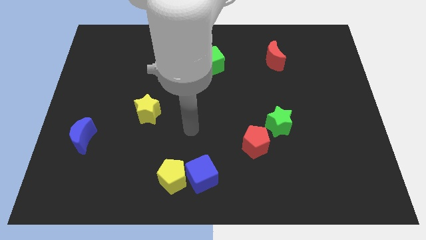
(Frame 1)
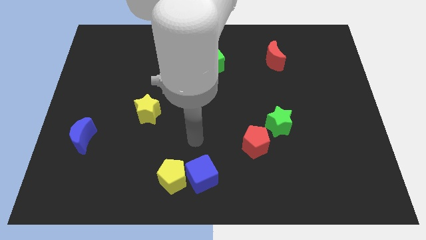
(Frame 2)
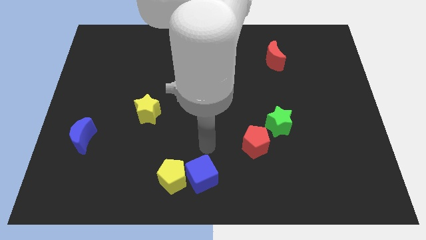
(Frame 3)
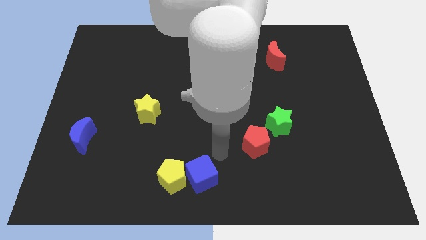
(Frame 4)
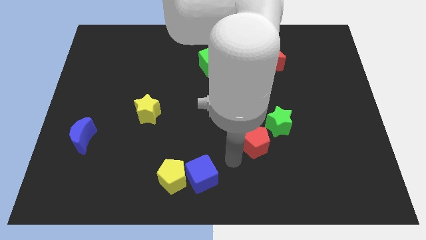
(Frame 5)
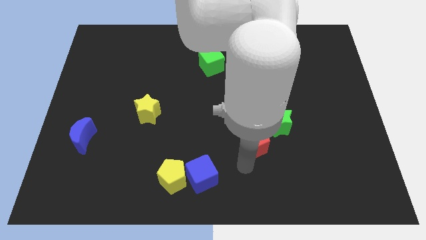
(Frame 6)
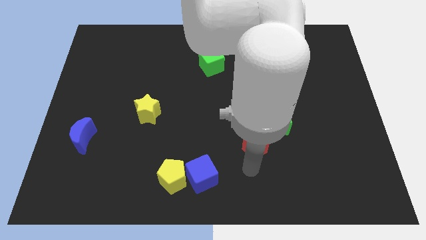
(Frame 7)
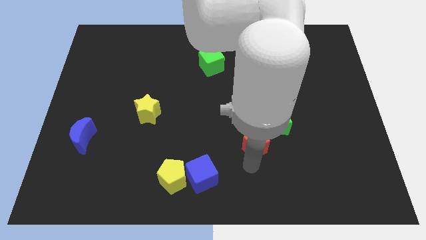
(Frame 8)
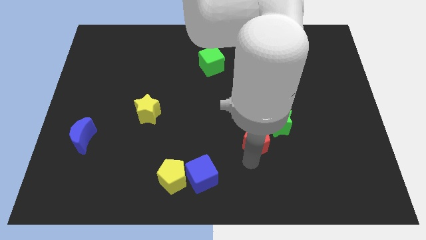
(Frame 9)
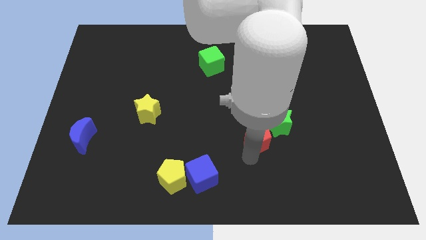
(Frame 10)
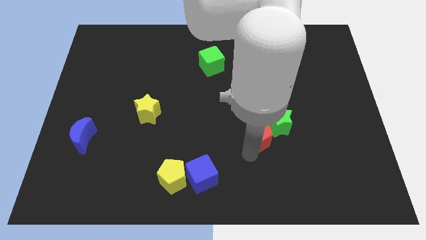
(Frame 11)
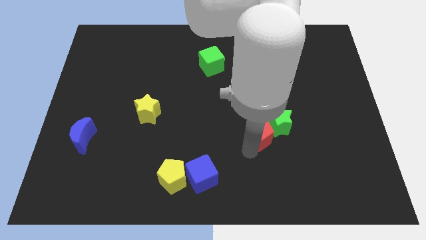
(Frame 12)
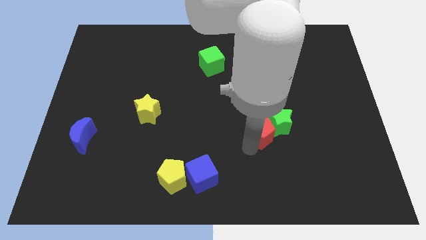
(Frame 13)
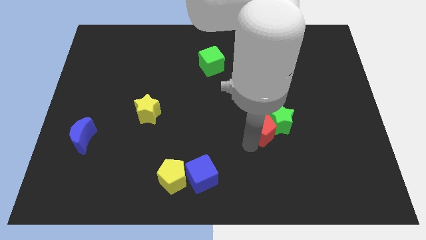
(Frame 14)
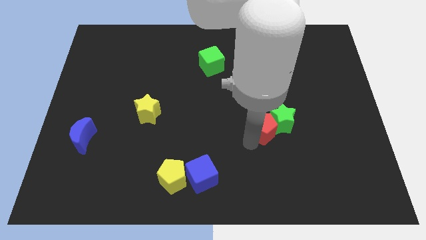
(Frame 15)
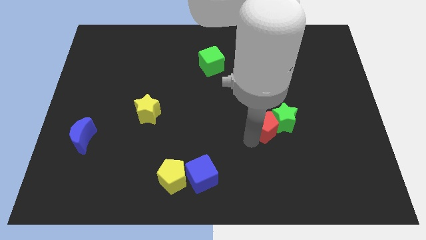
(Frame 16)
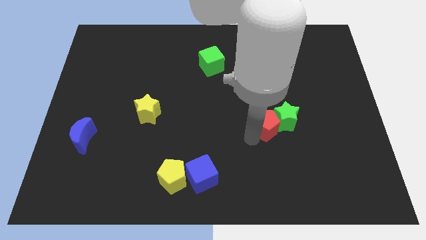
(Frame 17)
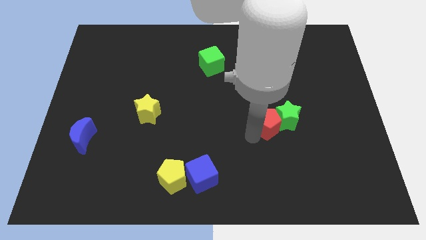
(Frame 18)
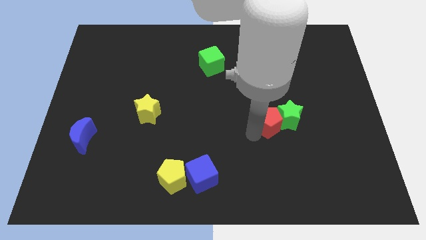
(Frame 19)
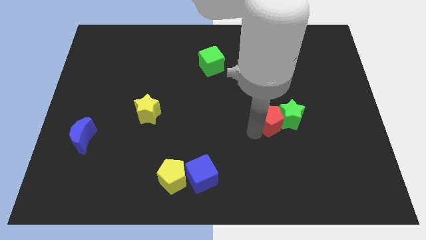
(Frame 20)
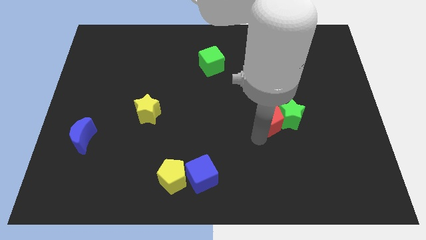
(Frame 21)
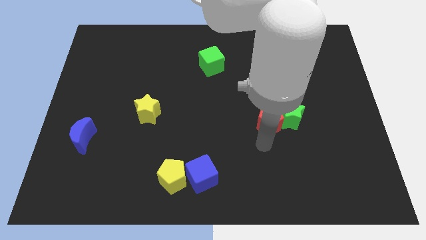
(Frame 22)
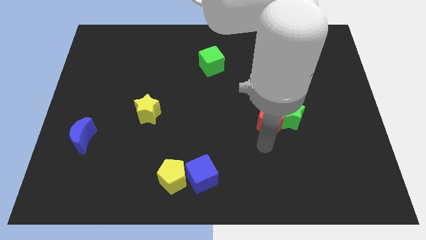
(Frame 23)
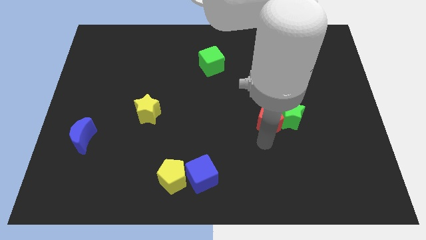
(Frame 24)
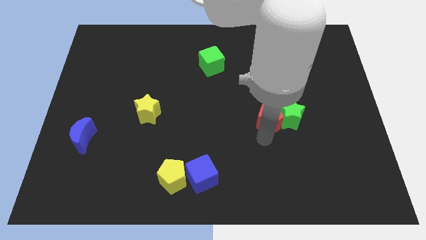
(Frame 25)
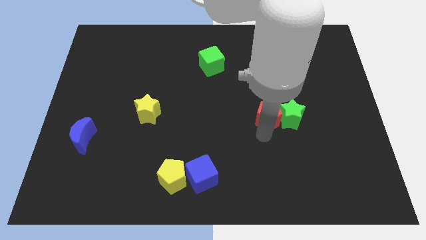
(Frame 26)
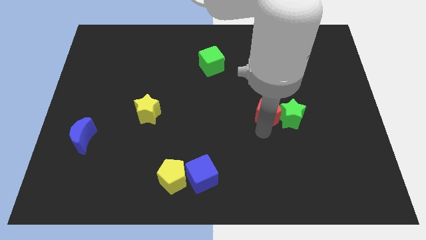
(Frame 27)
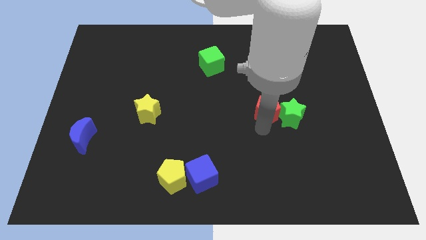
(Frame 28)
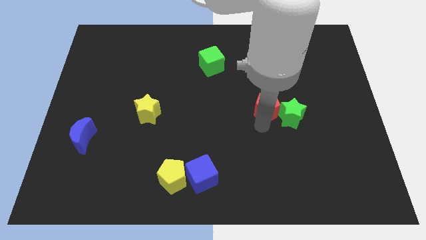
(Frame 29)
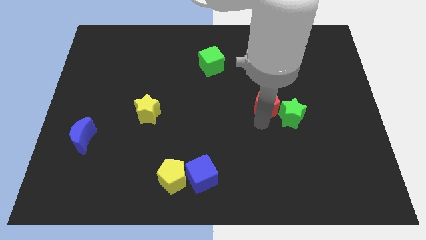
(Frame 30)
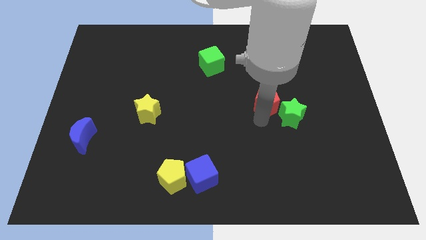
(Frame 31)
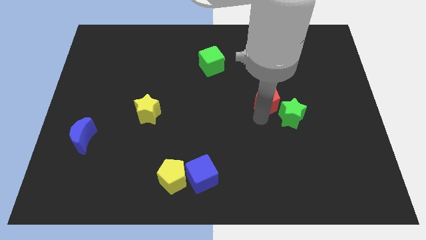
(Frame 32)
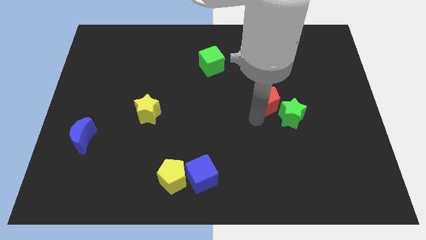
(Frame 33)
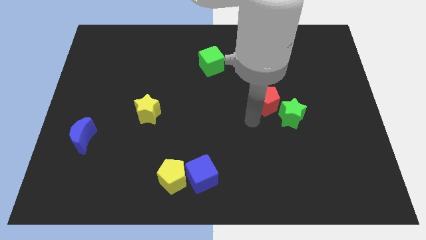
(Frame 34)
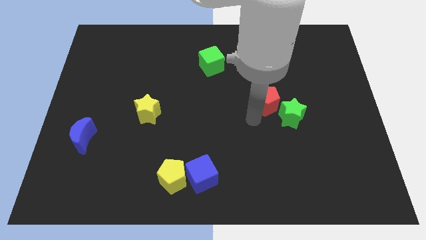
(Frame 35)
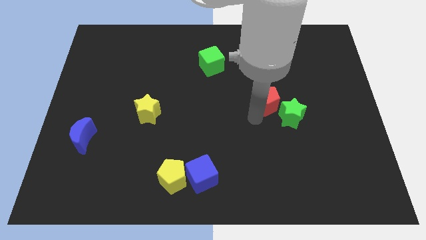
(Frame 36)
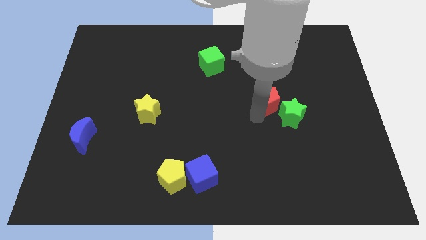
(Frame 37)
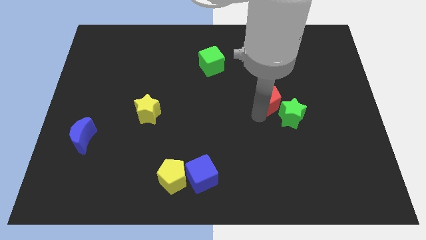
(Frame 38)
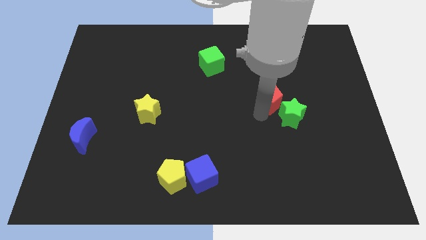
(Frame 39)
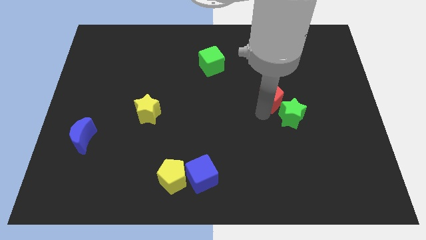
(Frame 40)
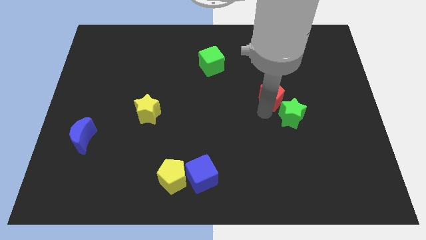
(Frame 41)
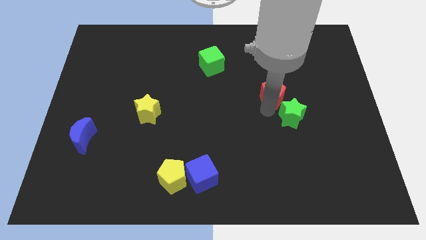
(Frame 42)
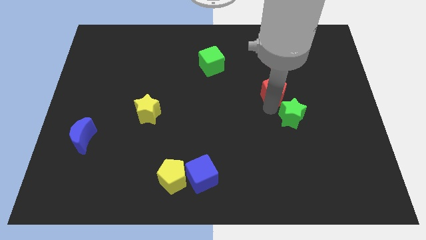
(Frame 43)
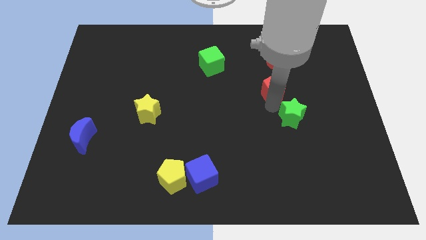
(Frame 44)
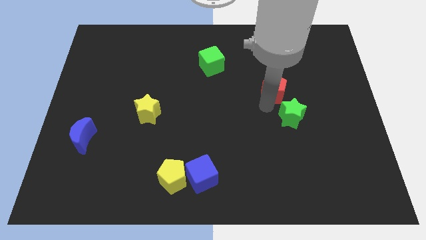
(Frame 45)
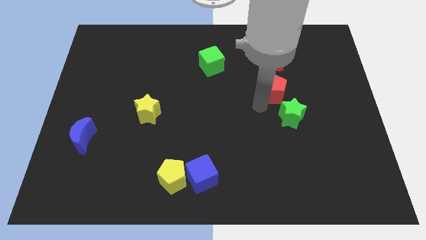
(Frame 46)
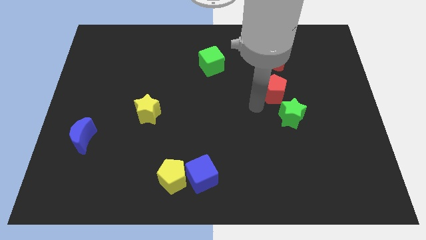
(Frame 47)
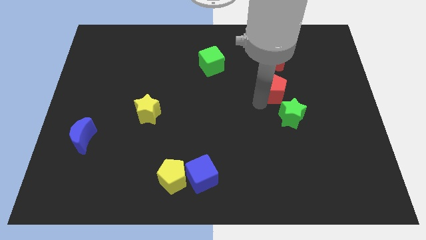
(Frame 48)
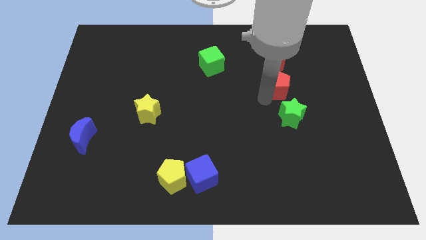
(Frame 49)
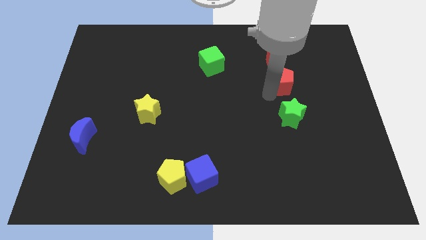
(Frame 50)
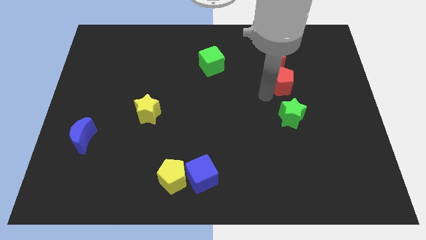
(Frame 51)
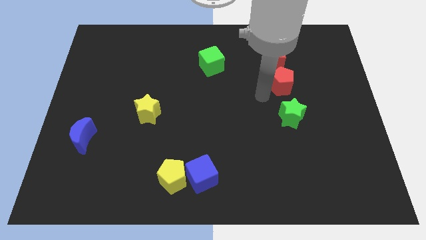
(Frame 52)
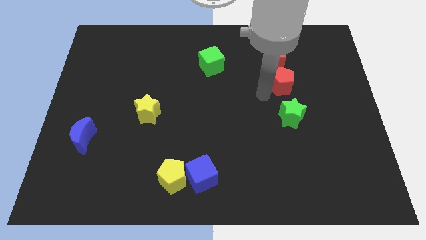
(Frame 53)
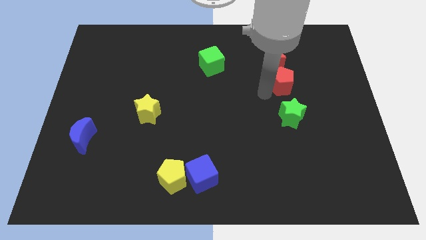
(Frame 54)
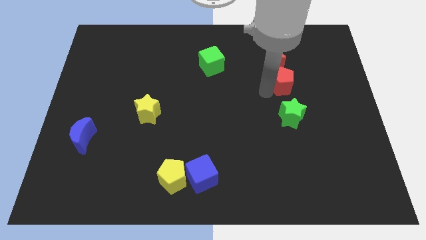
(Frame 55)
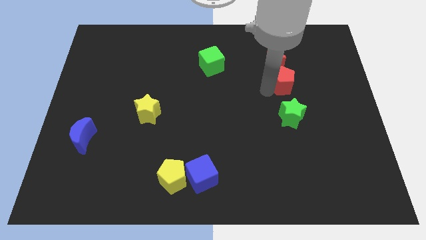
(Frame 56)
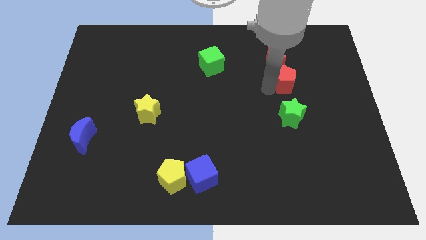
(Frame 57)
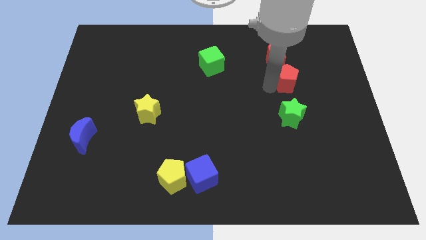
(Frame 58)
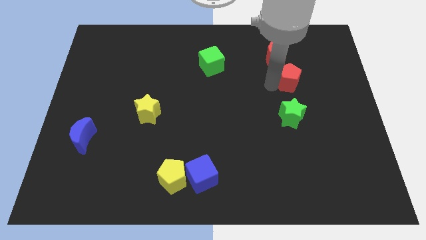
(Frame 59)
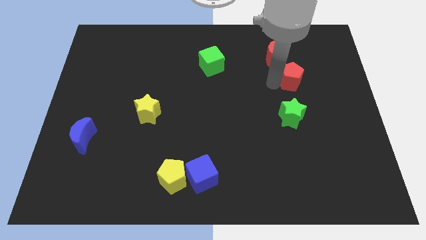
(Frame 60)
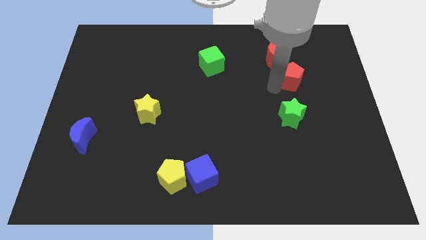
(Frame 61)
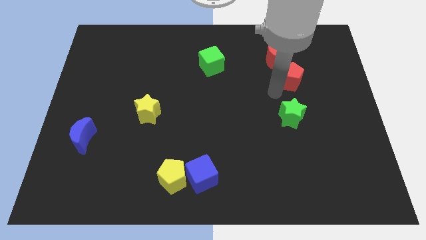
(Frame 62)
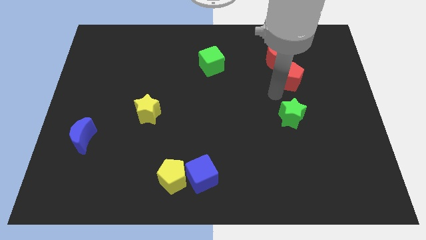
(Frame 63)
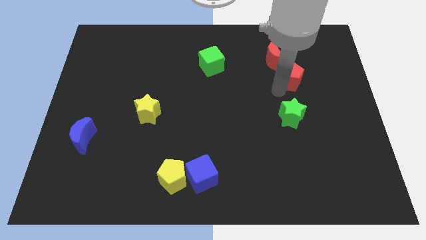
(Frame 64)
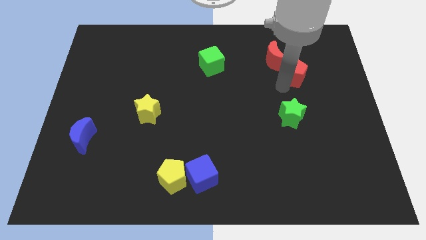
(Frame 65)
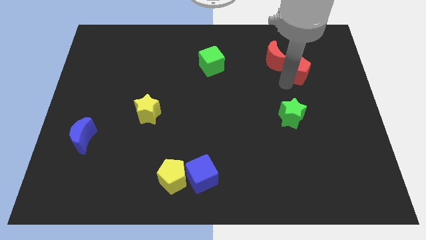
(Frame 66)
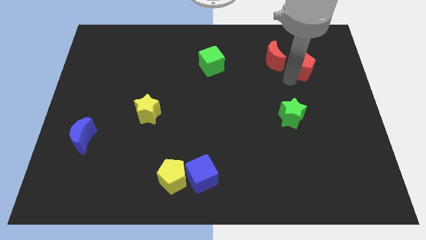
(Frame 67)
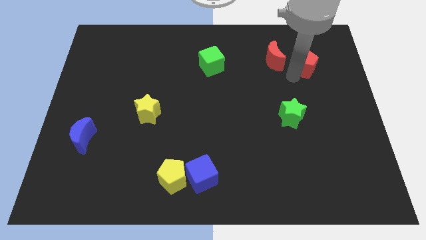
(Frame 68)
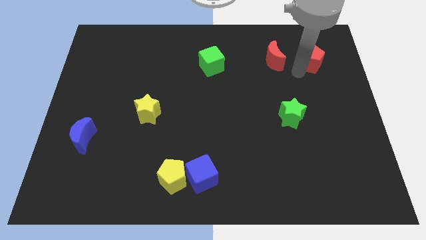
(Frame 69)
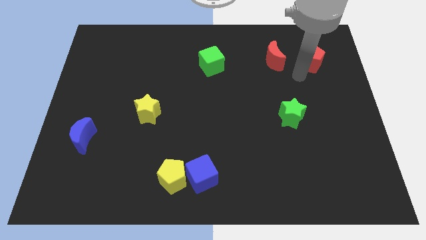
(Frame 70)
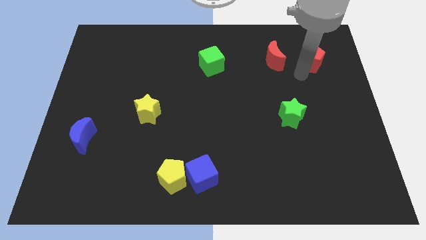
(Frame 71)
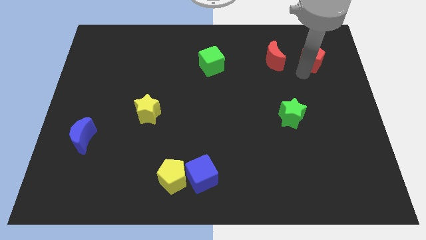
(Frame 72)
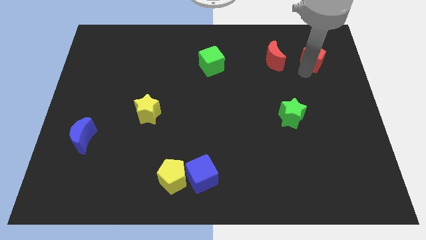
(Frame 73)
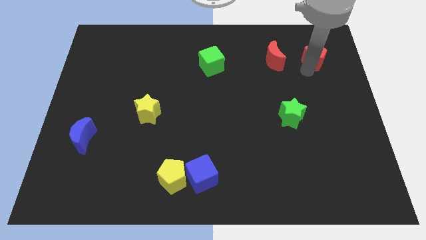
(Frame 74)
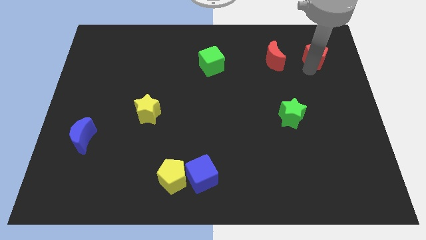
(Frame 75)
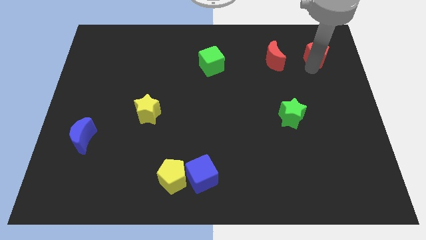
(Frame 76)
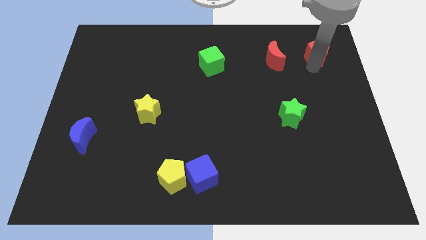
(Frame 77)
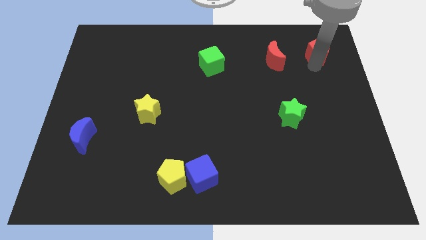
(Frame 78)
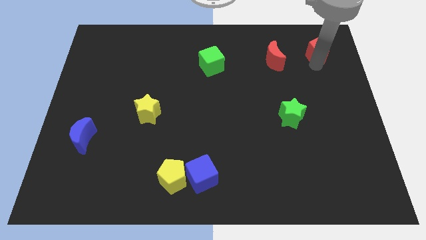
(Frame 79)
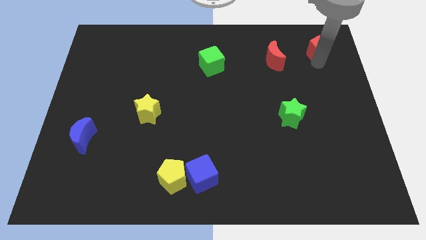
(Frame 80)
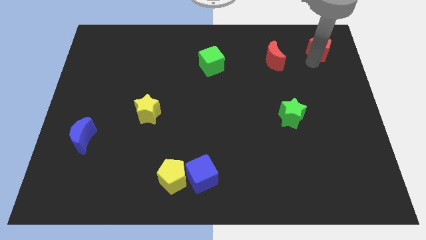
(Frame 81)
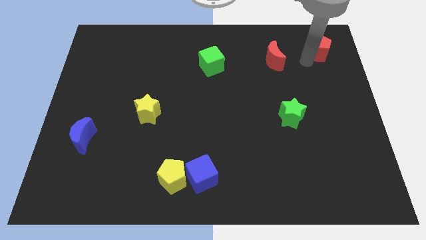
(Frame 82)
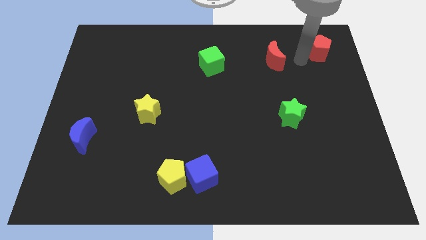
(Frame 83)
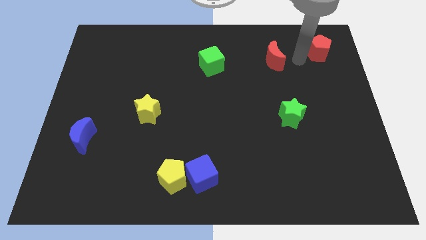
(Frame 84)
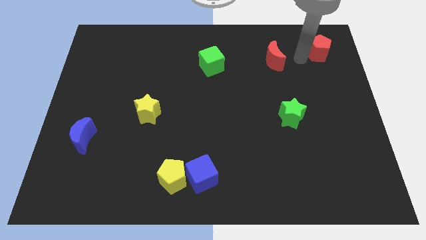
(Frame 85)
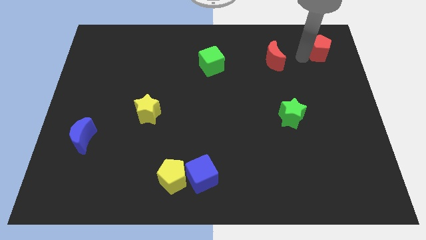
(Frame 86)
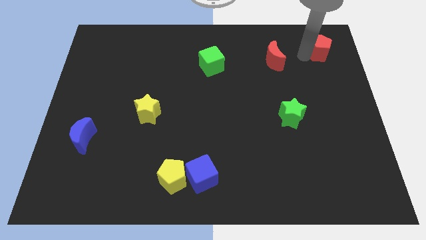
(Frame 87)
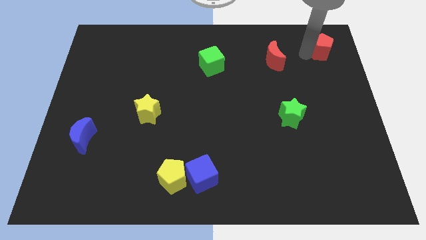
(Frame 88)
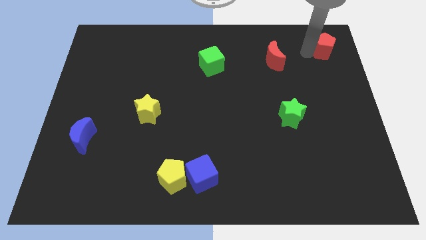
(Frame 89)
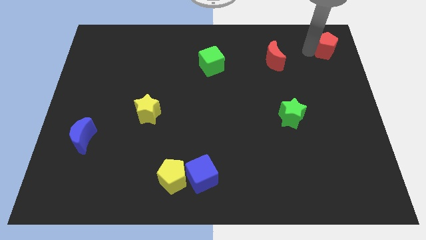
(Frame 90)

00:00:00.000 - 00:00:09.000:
move the red pentagon to the top right corner
